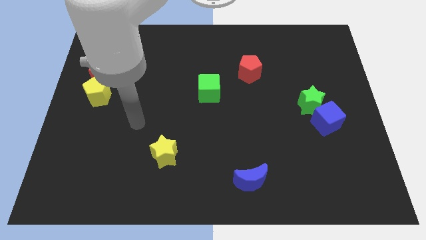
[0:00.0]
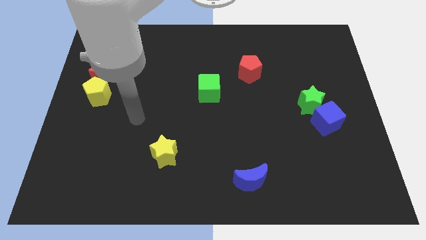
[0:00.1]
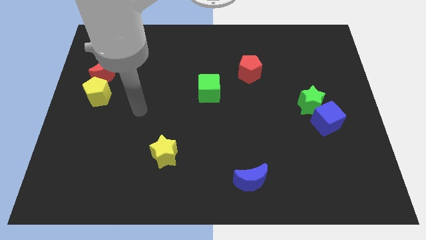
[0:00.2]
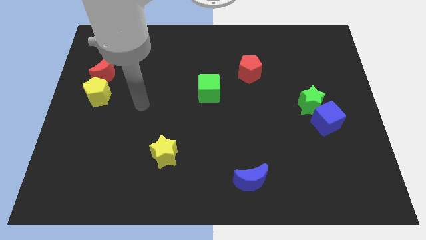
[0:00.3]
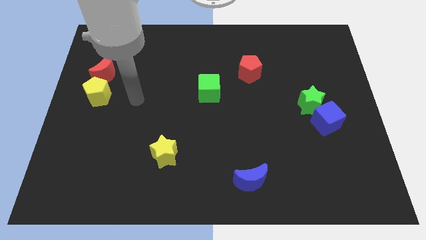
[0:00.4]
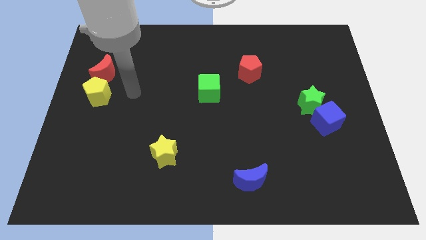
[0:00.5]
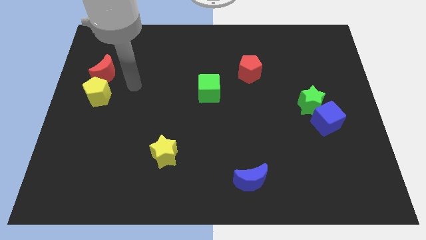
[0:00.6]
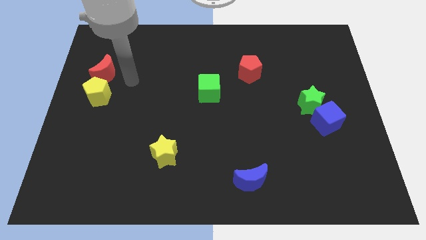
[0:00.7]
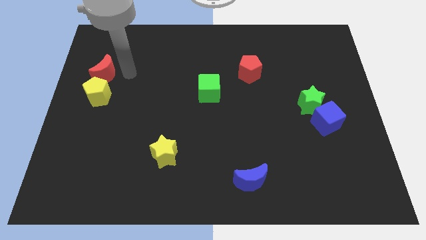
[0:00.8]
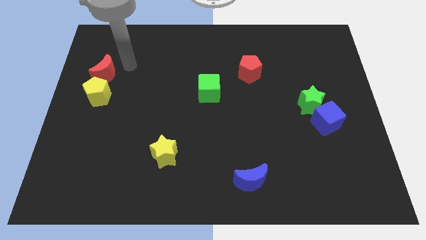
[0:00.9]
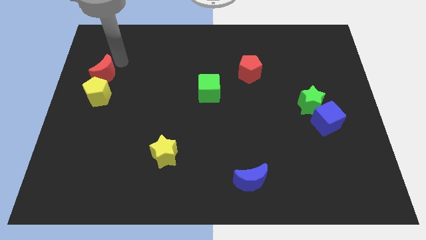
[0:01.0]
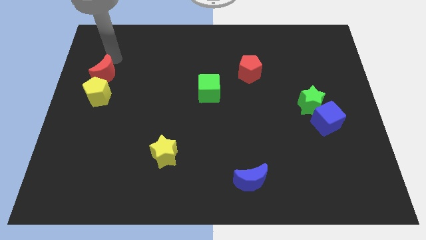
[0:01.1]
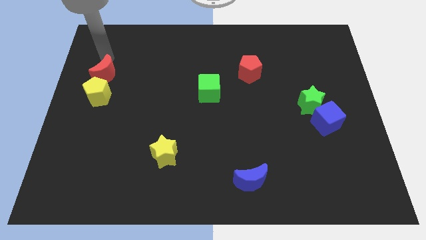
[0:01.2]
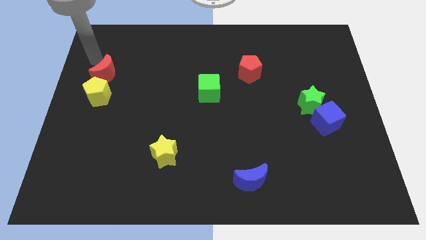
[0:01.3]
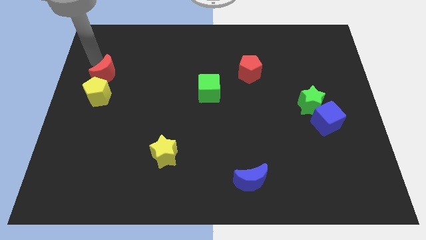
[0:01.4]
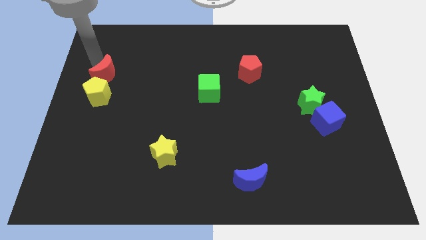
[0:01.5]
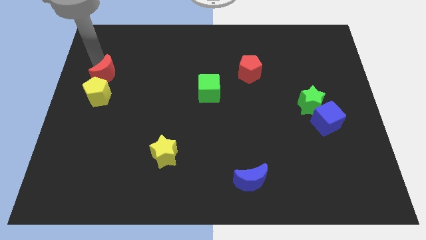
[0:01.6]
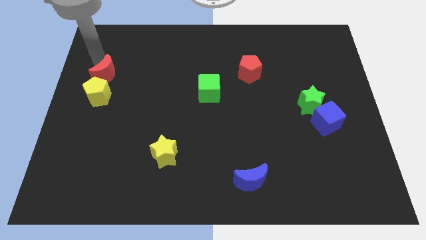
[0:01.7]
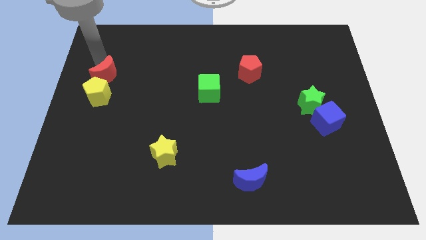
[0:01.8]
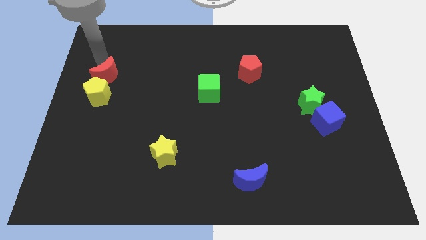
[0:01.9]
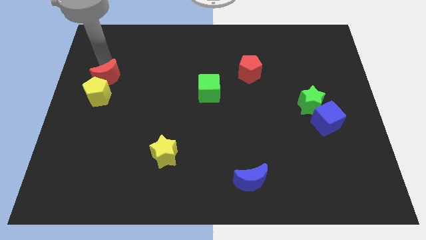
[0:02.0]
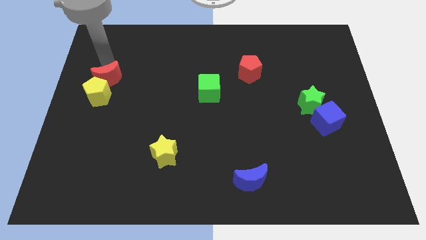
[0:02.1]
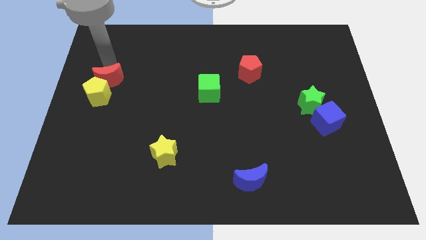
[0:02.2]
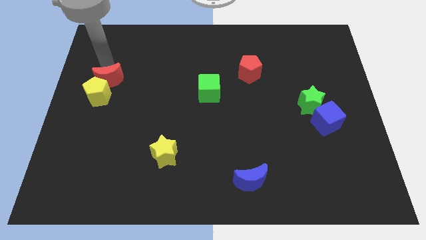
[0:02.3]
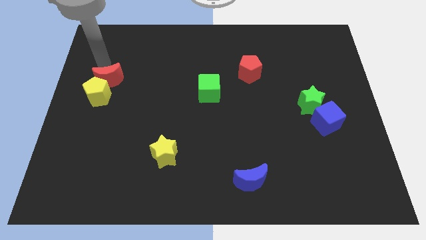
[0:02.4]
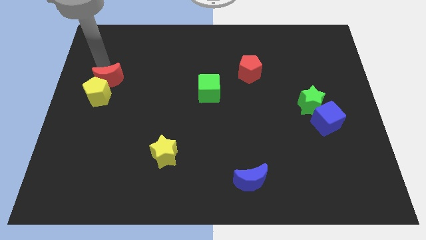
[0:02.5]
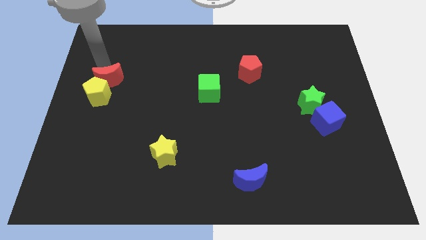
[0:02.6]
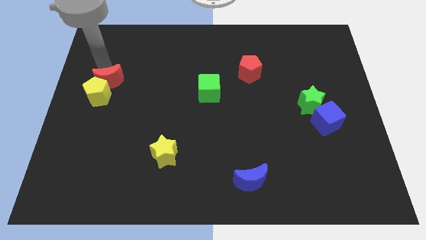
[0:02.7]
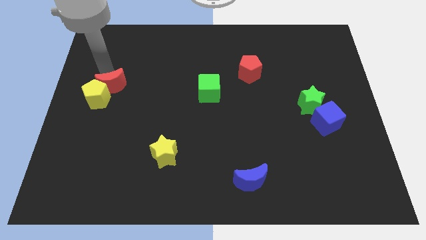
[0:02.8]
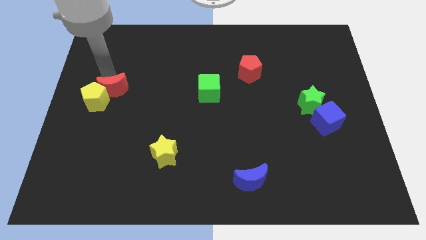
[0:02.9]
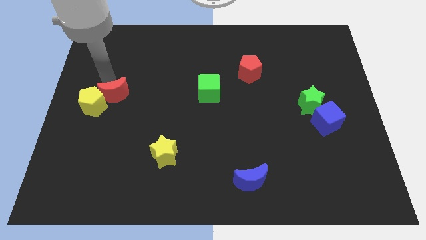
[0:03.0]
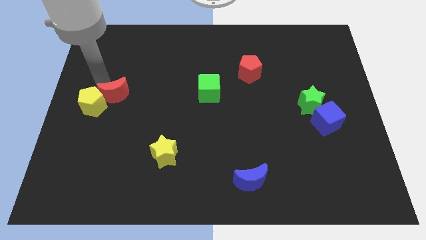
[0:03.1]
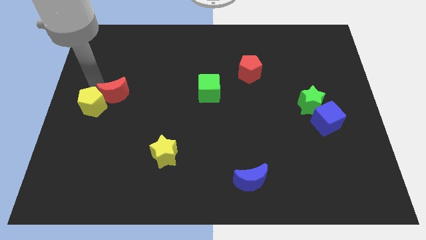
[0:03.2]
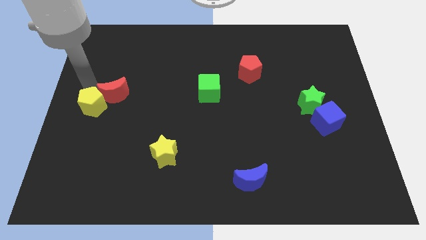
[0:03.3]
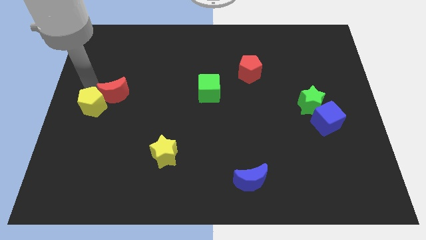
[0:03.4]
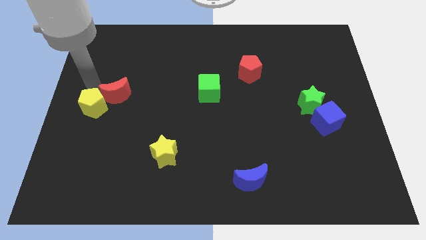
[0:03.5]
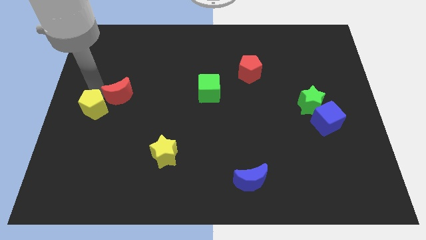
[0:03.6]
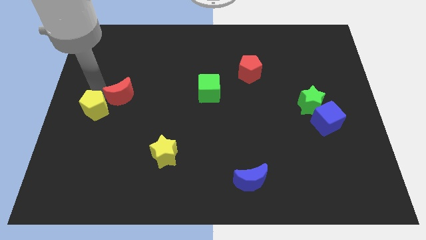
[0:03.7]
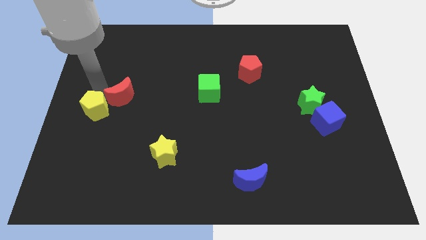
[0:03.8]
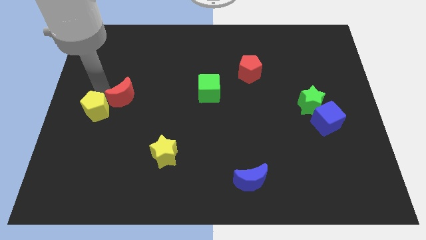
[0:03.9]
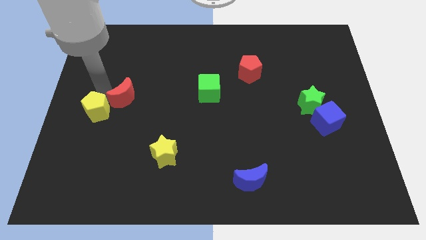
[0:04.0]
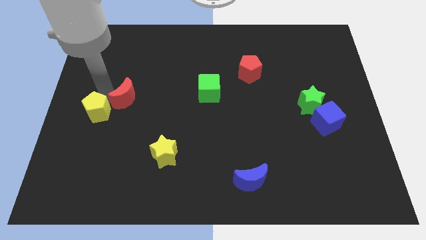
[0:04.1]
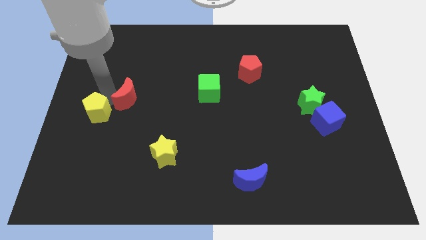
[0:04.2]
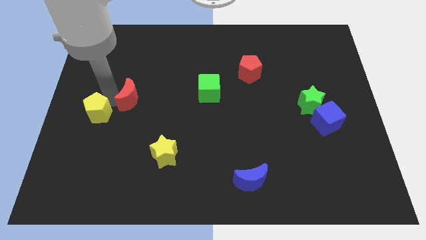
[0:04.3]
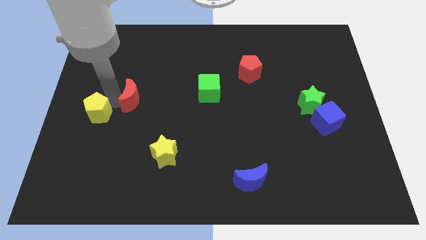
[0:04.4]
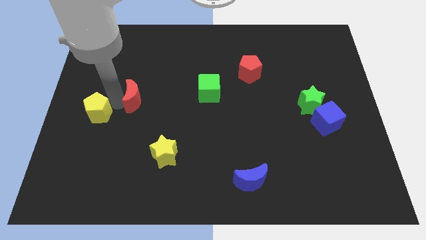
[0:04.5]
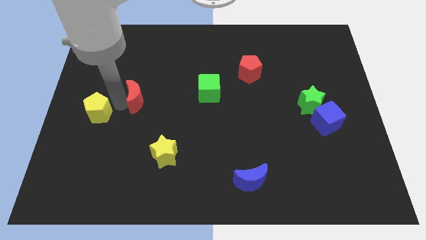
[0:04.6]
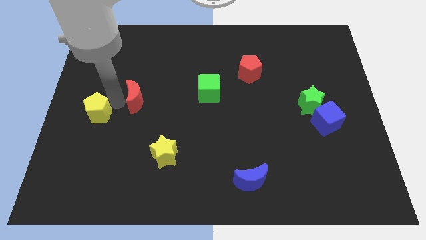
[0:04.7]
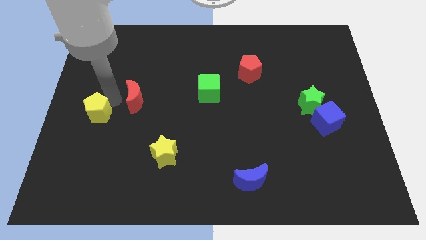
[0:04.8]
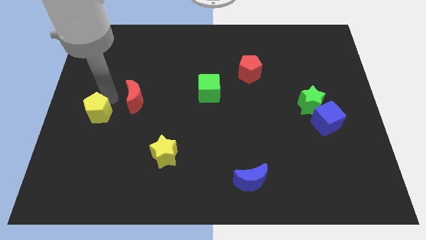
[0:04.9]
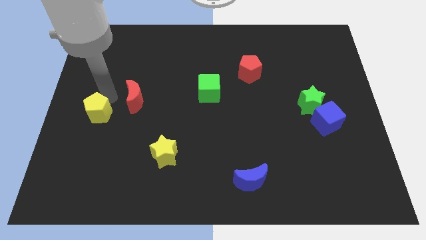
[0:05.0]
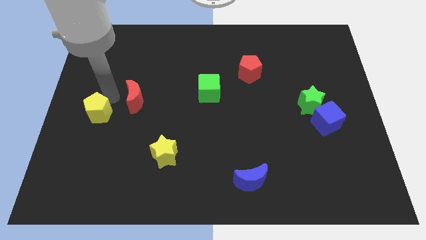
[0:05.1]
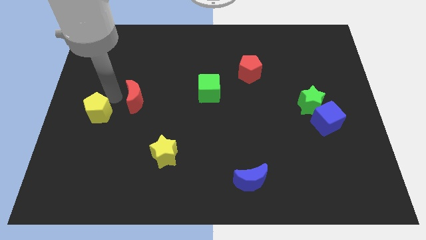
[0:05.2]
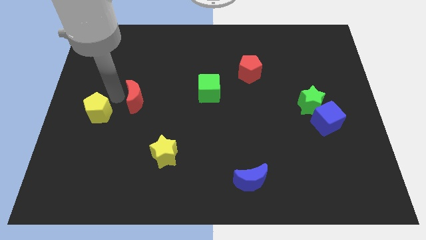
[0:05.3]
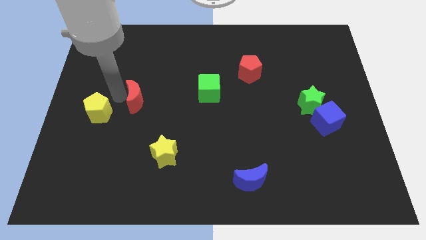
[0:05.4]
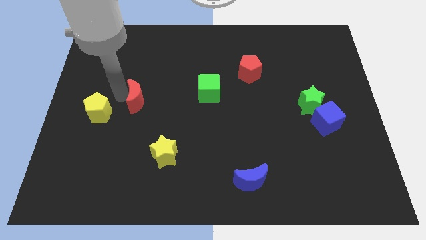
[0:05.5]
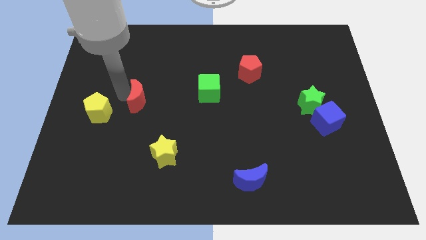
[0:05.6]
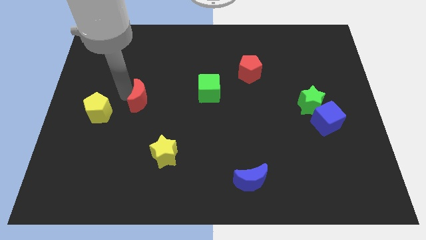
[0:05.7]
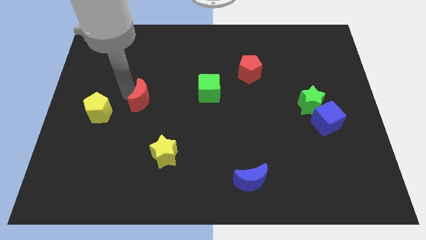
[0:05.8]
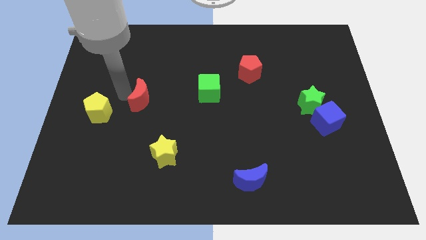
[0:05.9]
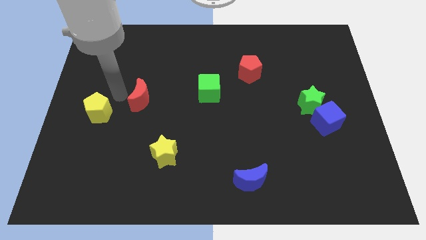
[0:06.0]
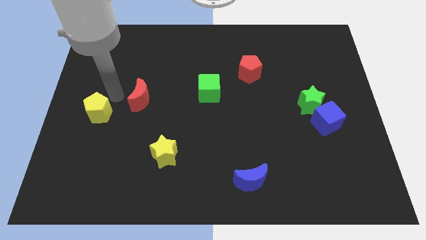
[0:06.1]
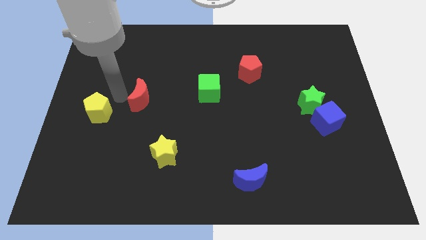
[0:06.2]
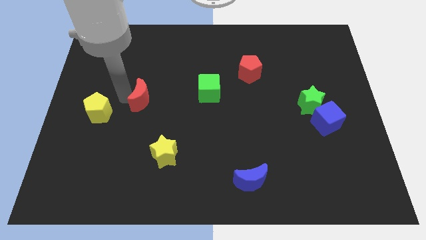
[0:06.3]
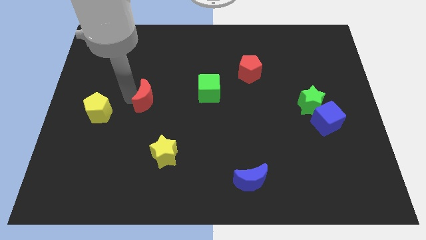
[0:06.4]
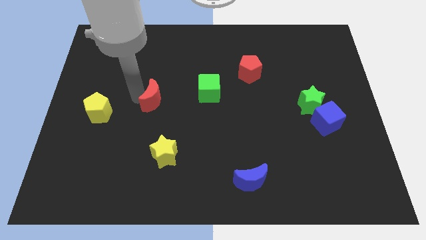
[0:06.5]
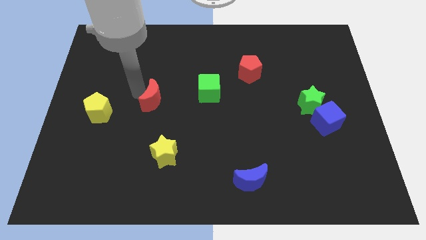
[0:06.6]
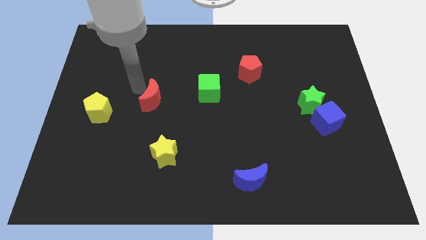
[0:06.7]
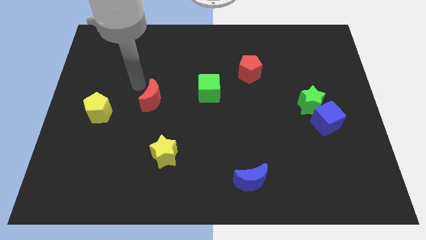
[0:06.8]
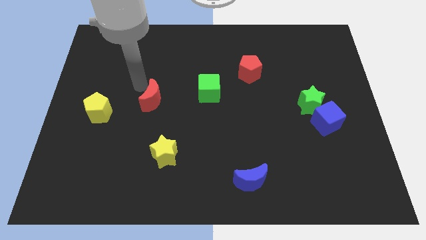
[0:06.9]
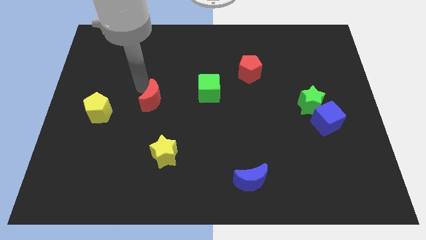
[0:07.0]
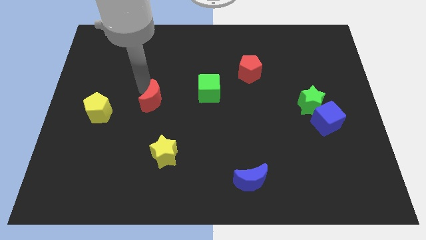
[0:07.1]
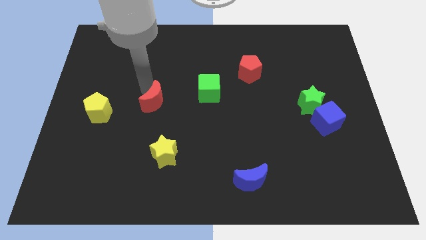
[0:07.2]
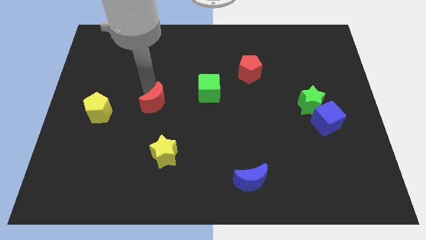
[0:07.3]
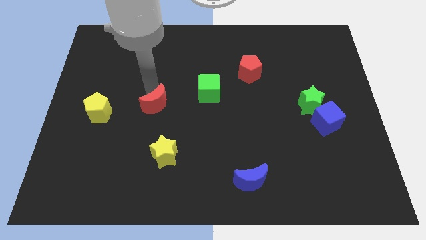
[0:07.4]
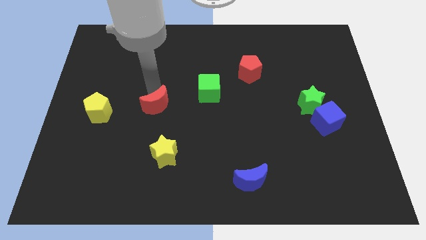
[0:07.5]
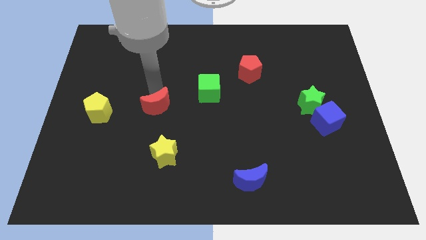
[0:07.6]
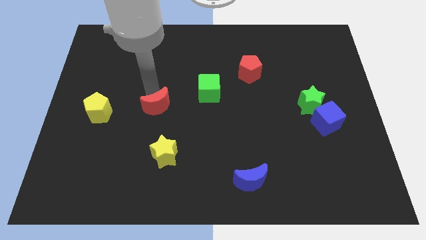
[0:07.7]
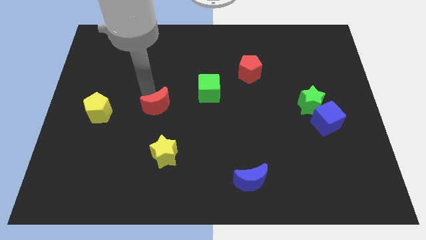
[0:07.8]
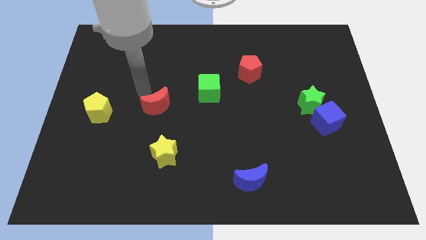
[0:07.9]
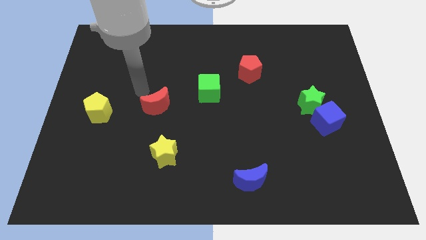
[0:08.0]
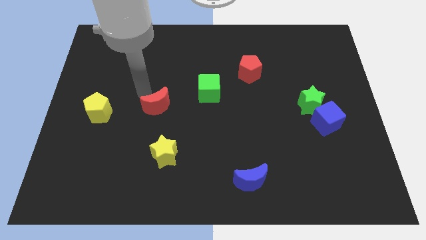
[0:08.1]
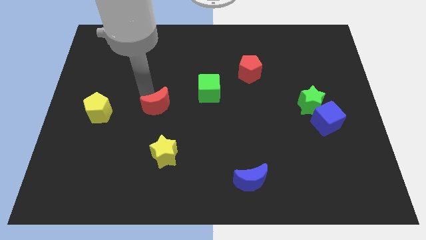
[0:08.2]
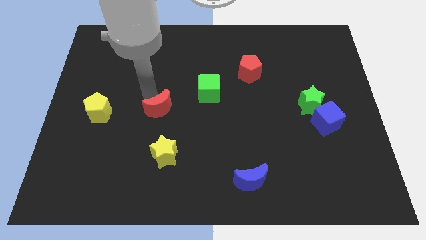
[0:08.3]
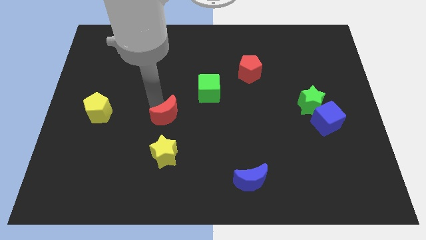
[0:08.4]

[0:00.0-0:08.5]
push the red moon diagonally downwards and right

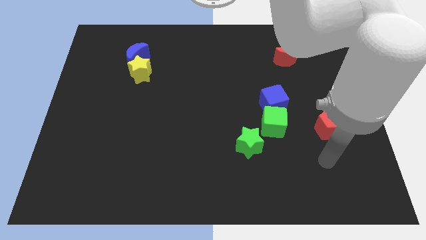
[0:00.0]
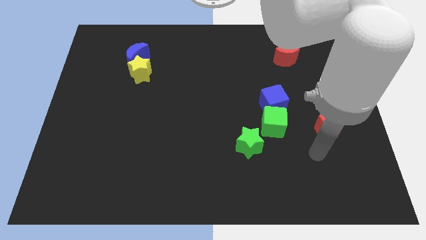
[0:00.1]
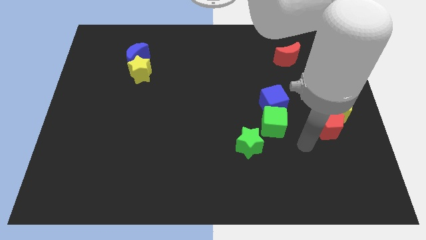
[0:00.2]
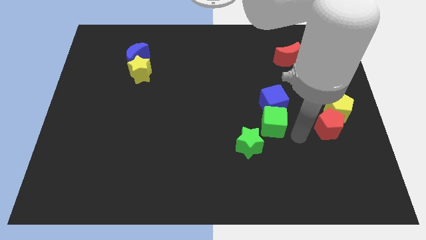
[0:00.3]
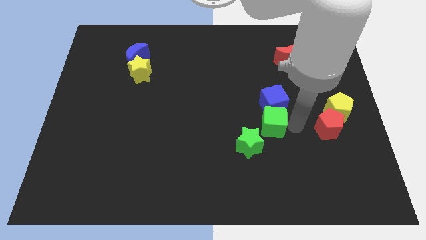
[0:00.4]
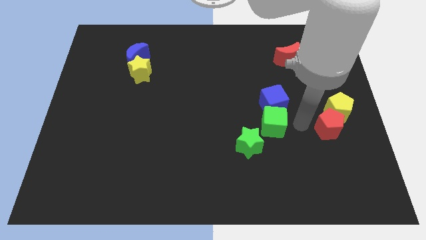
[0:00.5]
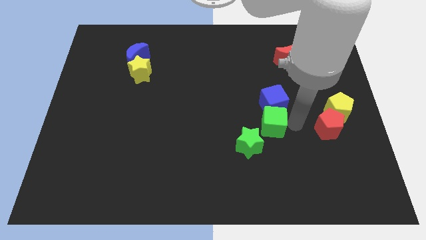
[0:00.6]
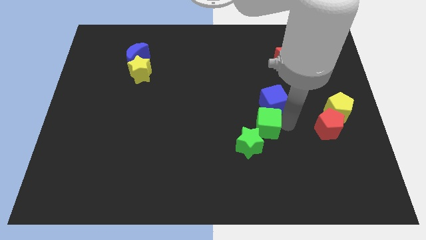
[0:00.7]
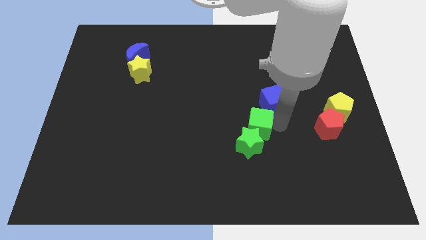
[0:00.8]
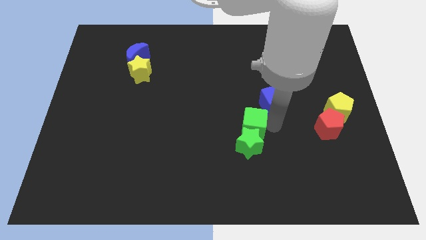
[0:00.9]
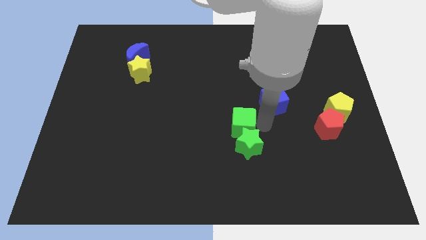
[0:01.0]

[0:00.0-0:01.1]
slightly push the green cube to the left
